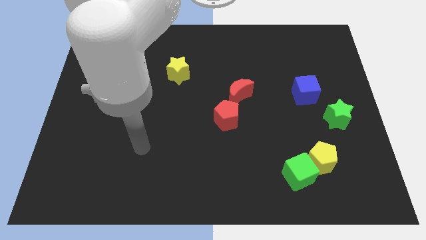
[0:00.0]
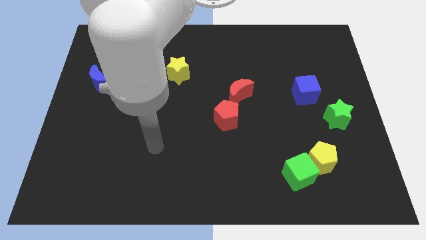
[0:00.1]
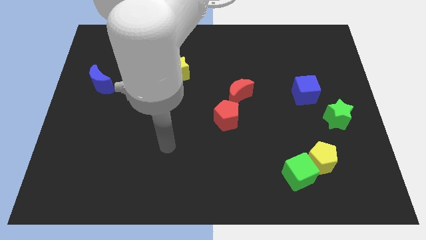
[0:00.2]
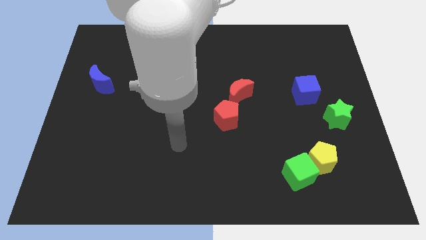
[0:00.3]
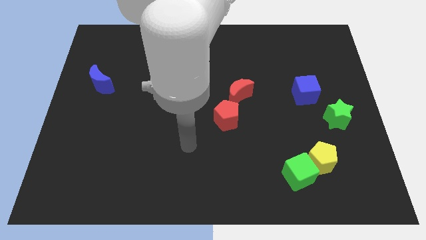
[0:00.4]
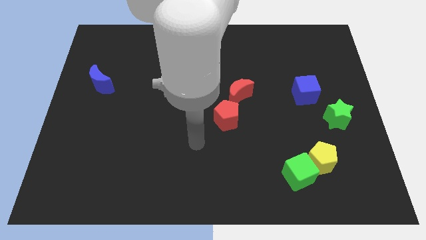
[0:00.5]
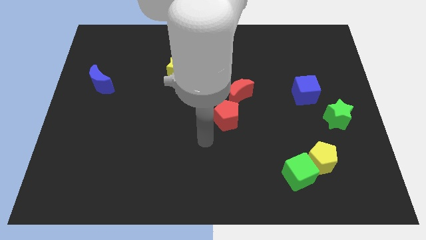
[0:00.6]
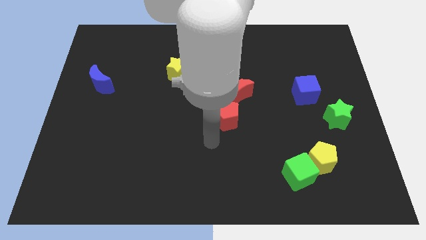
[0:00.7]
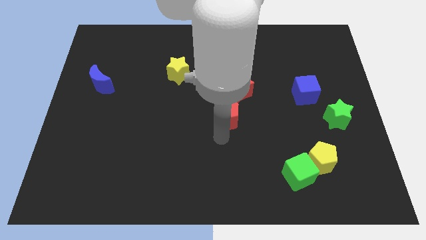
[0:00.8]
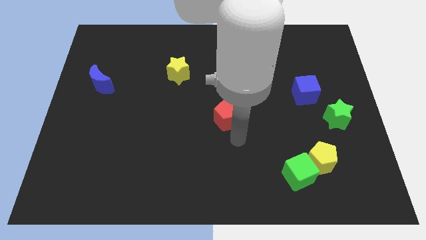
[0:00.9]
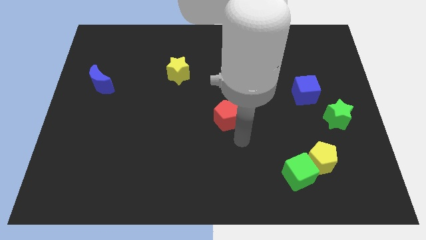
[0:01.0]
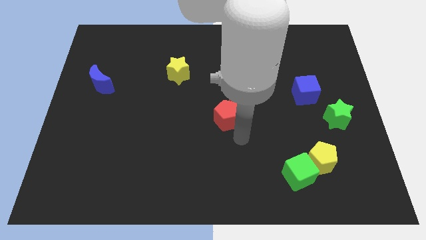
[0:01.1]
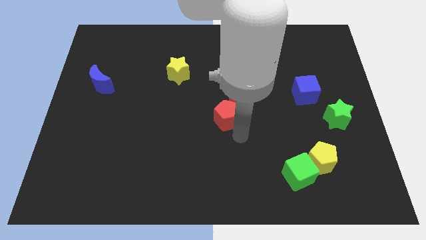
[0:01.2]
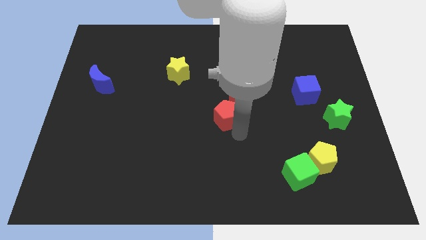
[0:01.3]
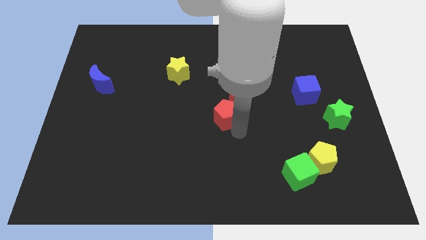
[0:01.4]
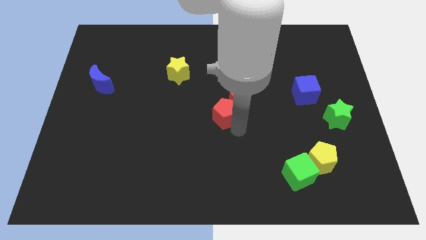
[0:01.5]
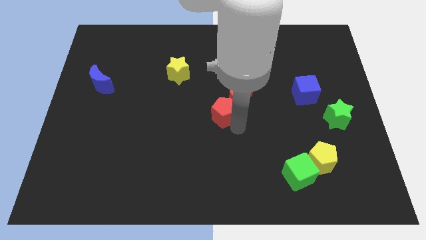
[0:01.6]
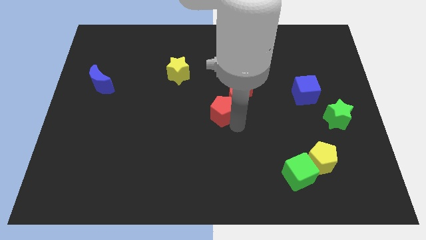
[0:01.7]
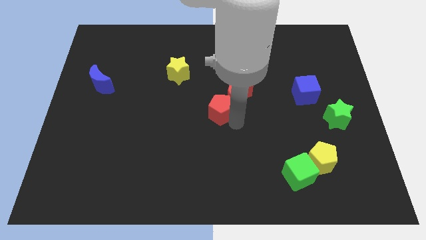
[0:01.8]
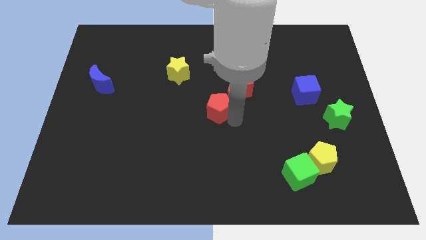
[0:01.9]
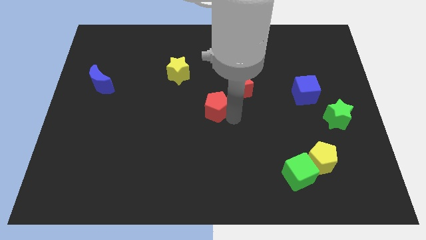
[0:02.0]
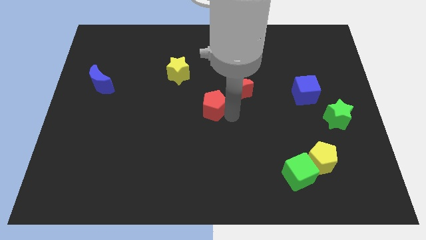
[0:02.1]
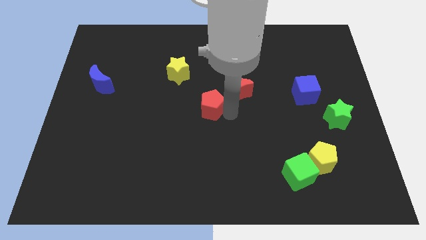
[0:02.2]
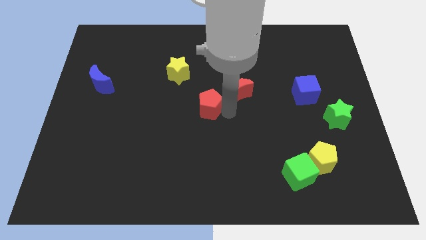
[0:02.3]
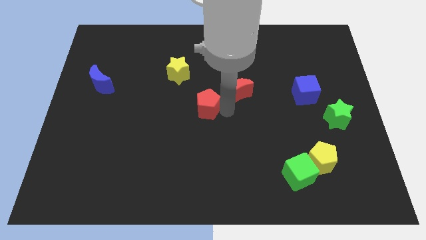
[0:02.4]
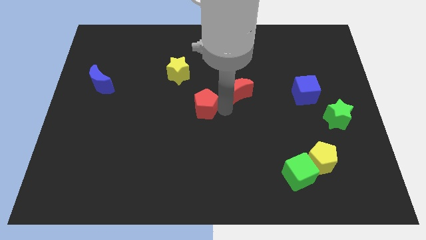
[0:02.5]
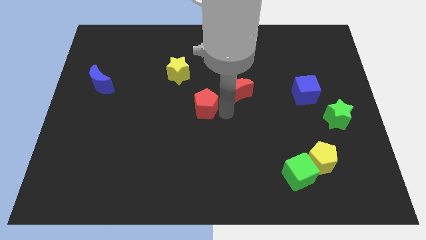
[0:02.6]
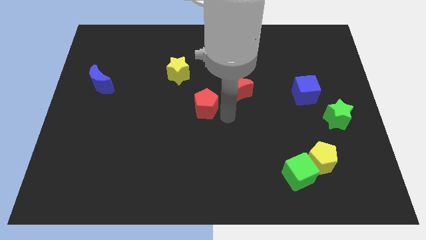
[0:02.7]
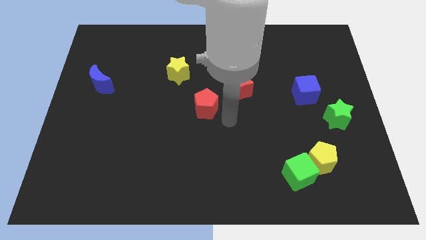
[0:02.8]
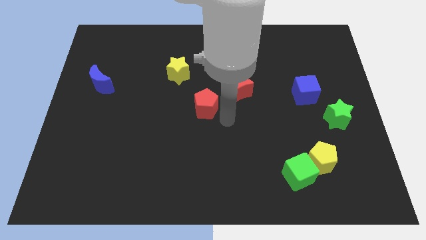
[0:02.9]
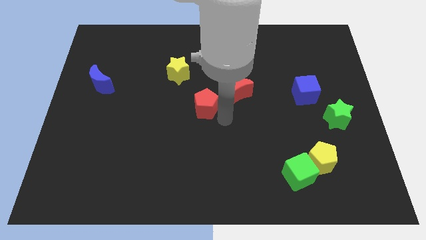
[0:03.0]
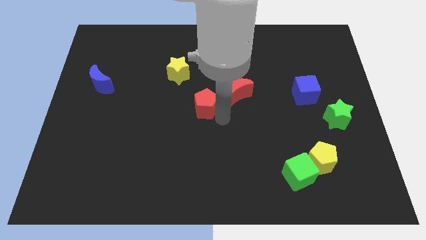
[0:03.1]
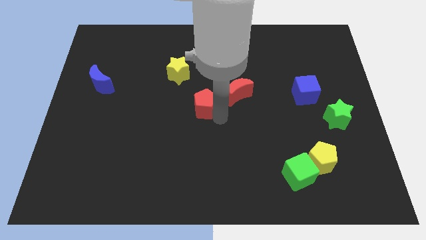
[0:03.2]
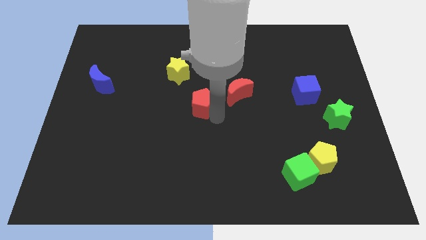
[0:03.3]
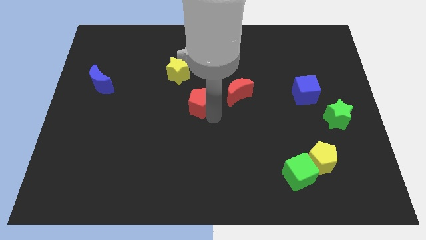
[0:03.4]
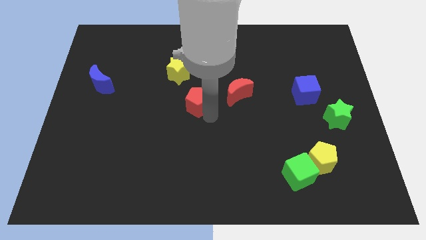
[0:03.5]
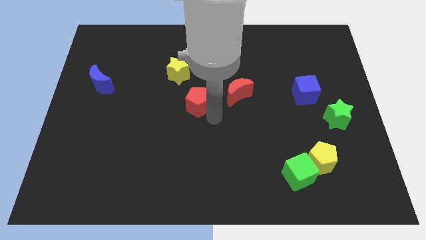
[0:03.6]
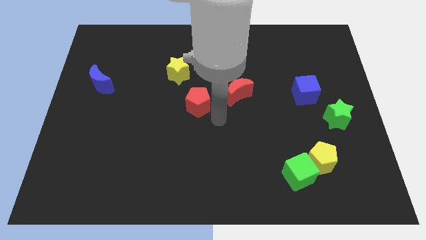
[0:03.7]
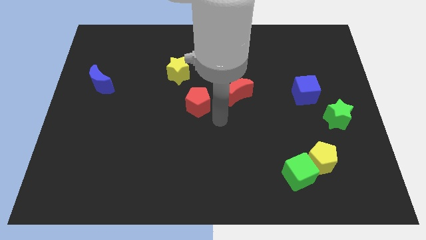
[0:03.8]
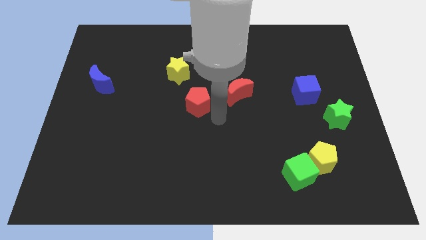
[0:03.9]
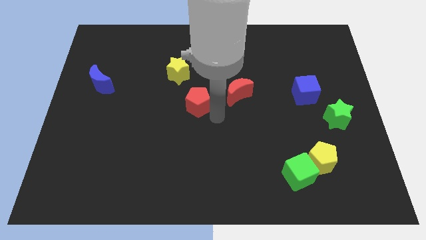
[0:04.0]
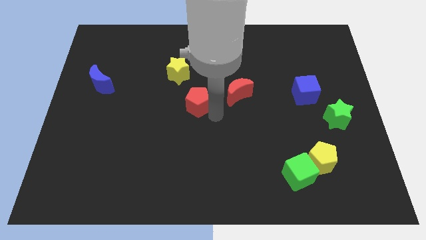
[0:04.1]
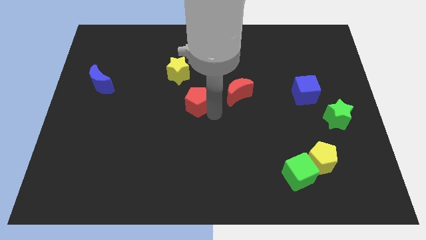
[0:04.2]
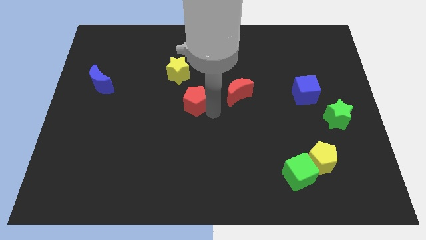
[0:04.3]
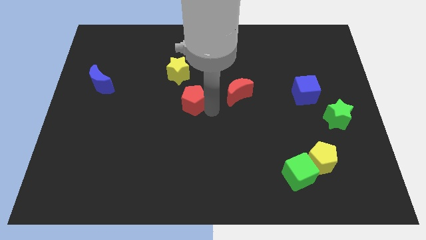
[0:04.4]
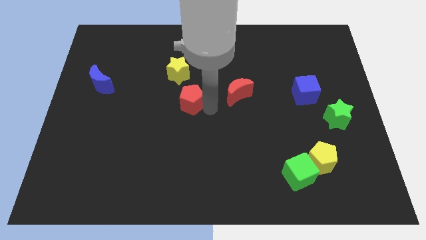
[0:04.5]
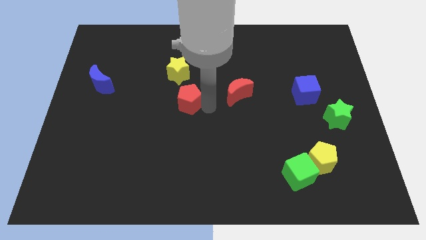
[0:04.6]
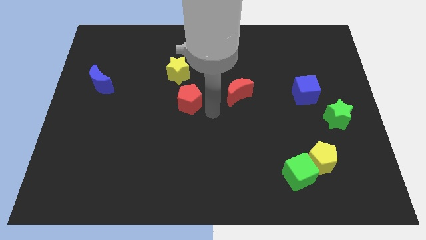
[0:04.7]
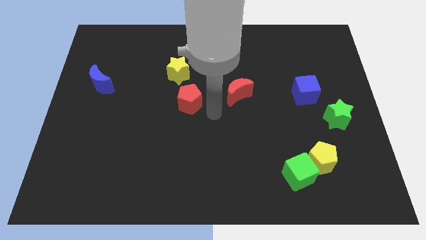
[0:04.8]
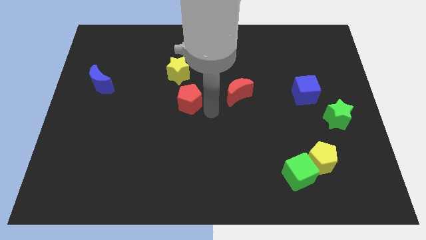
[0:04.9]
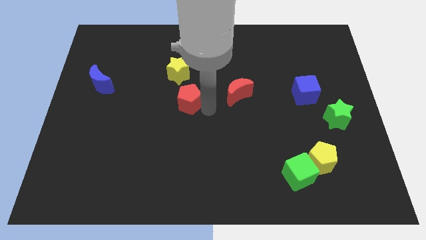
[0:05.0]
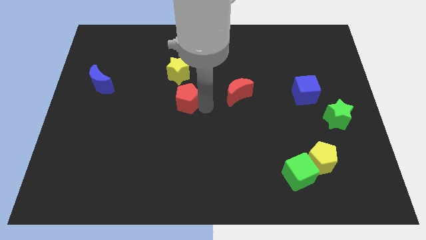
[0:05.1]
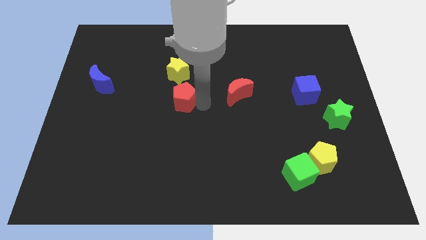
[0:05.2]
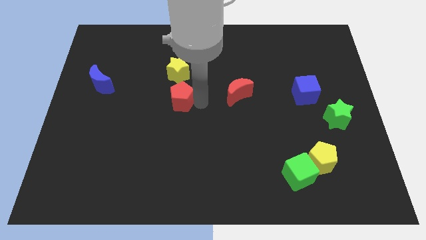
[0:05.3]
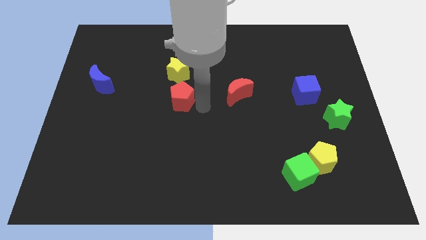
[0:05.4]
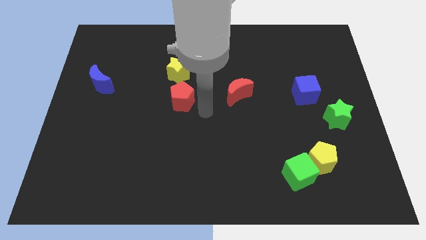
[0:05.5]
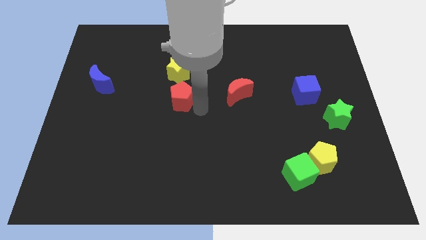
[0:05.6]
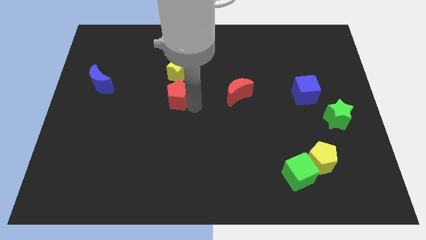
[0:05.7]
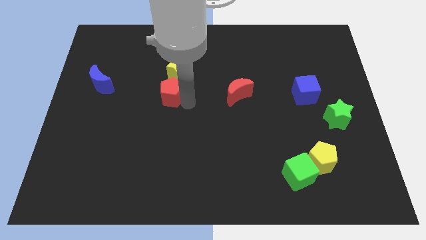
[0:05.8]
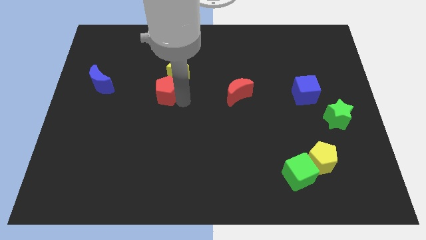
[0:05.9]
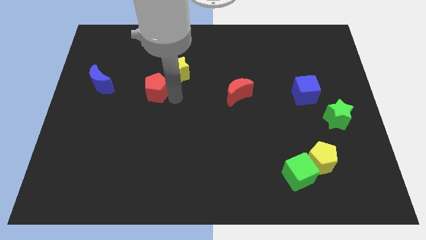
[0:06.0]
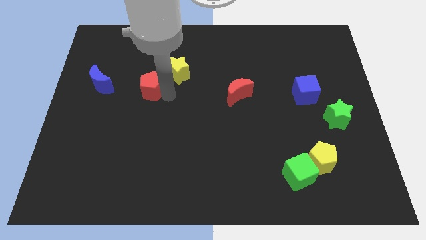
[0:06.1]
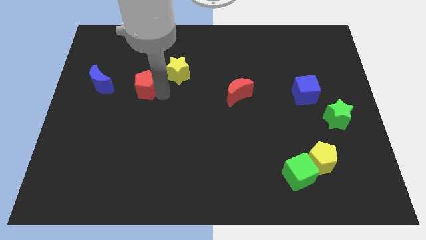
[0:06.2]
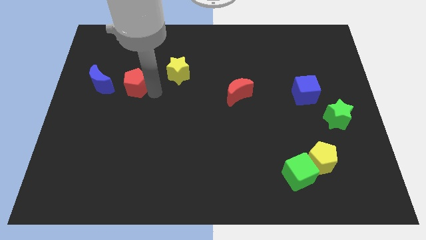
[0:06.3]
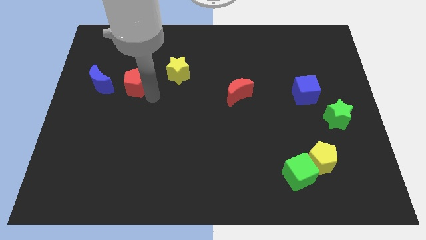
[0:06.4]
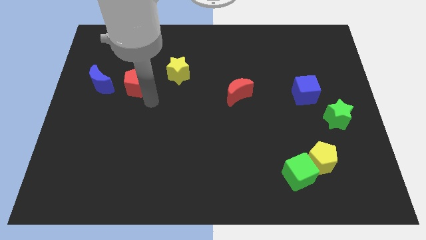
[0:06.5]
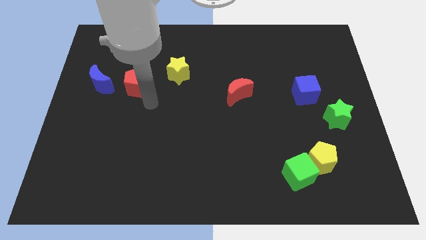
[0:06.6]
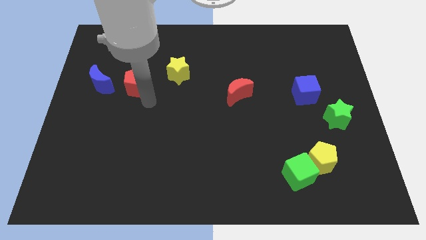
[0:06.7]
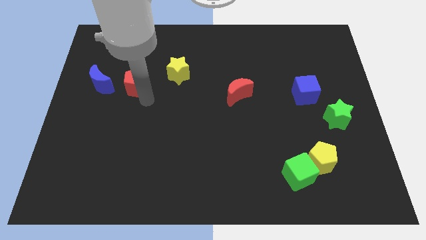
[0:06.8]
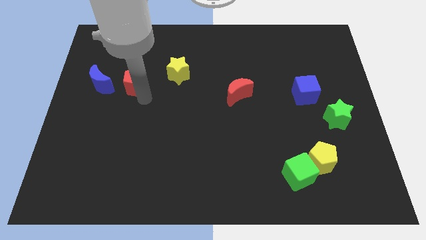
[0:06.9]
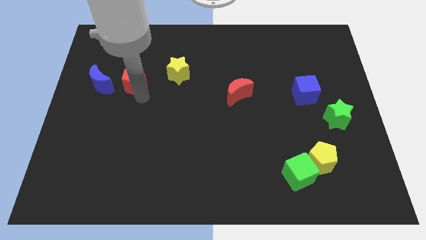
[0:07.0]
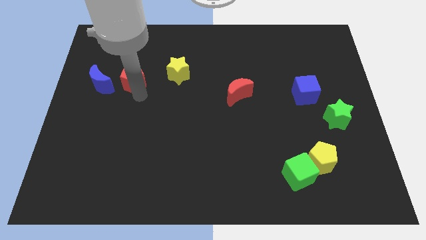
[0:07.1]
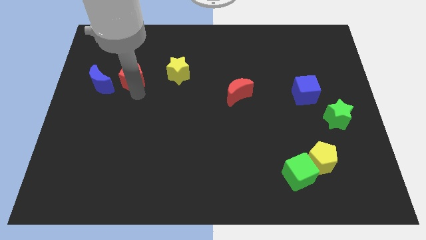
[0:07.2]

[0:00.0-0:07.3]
push the red pentagon diagonally up and to the right of the blue moon
